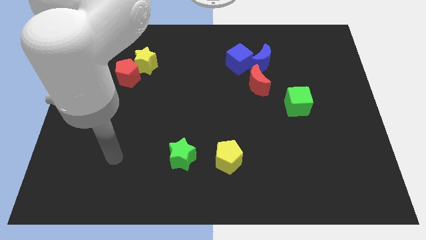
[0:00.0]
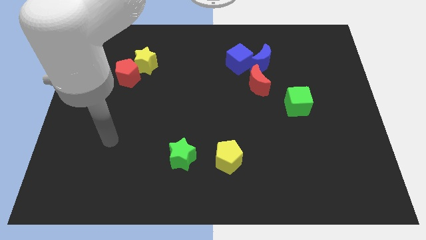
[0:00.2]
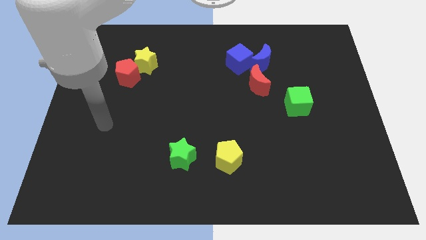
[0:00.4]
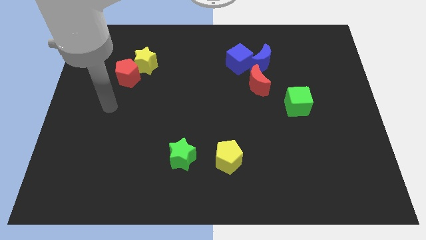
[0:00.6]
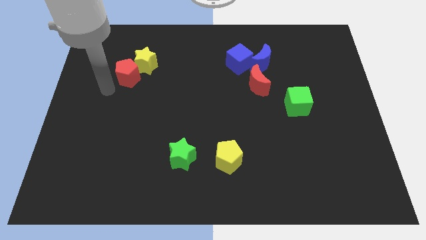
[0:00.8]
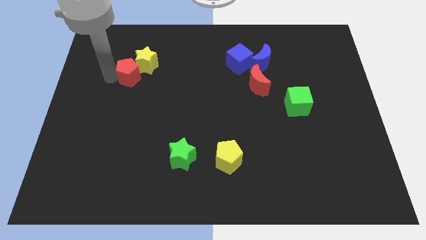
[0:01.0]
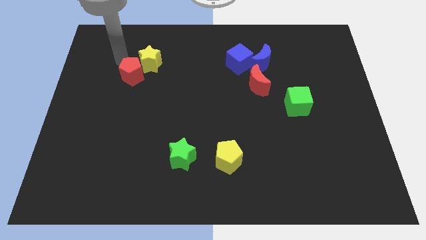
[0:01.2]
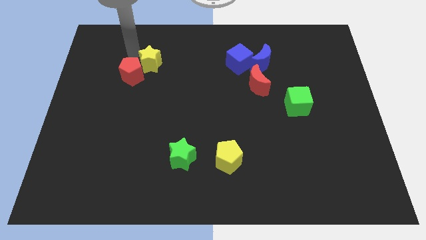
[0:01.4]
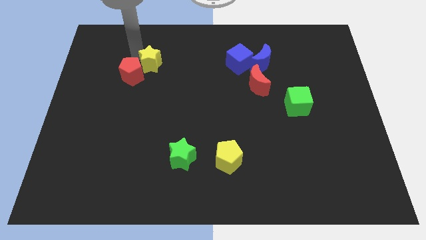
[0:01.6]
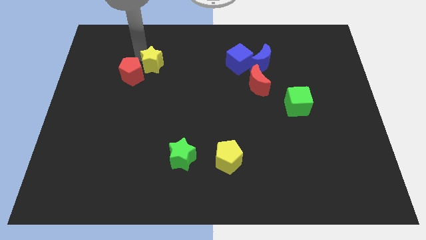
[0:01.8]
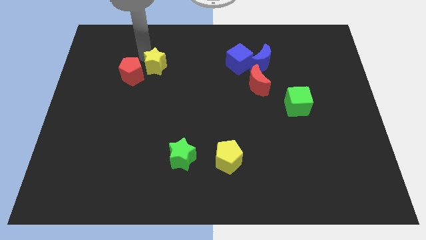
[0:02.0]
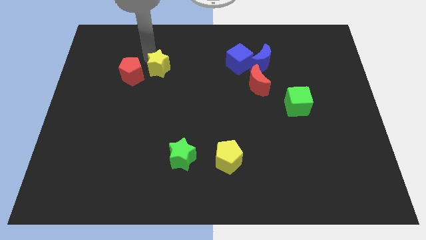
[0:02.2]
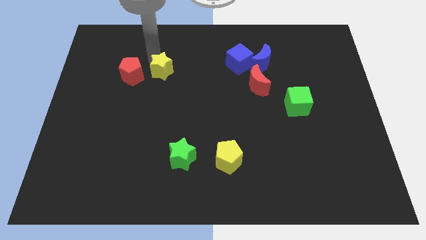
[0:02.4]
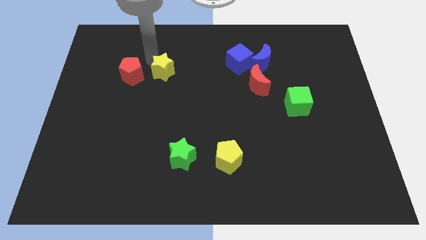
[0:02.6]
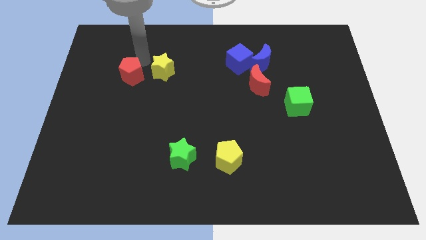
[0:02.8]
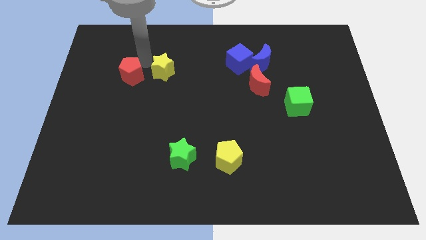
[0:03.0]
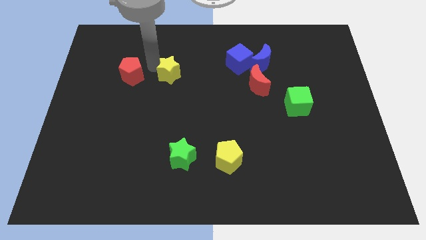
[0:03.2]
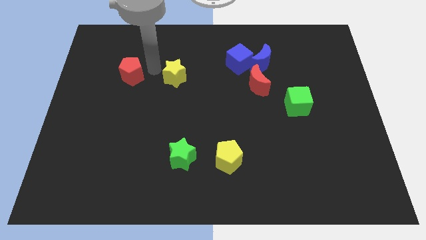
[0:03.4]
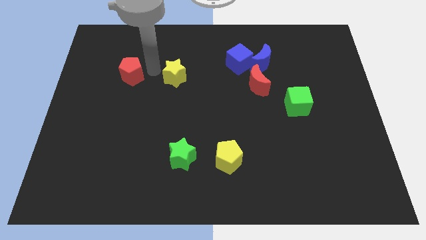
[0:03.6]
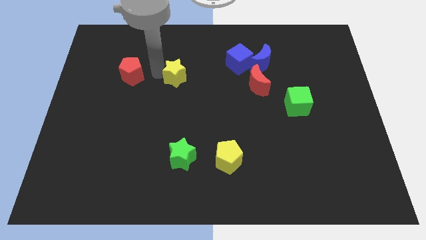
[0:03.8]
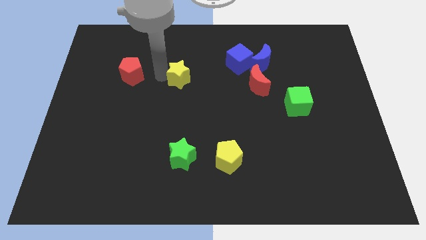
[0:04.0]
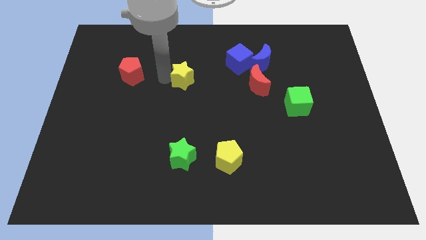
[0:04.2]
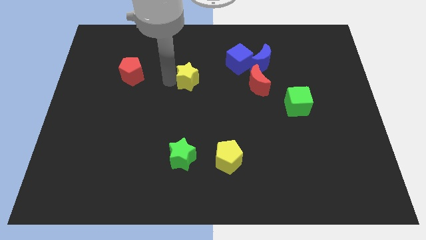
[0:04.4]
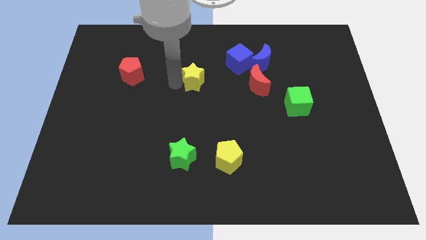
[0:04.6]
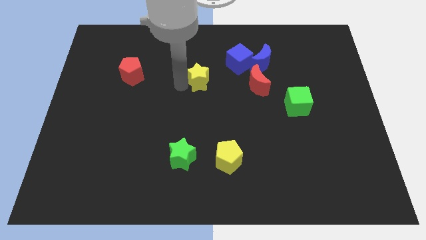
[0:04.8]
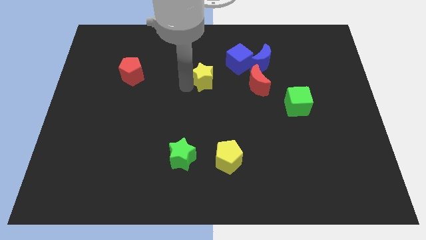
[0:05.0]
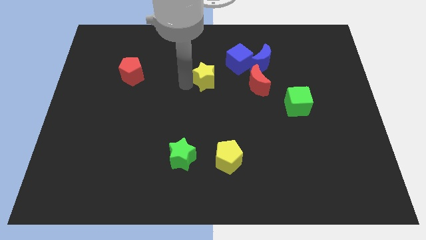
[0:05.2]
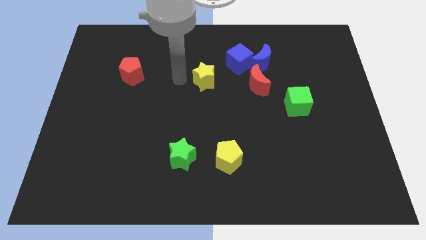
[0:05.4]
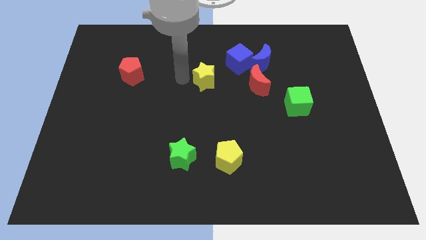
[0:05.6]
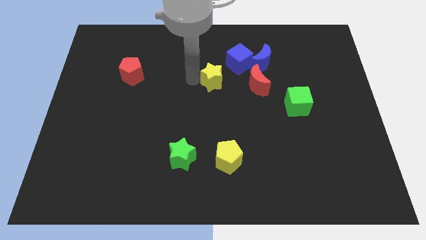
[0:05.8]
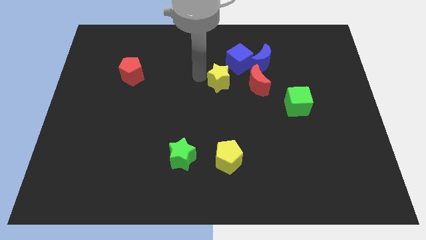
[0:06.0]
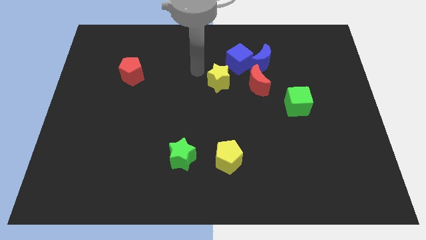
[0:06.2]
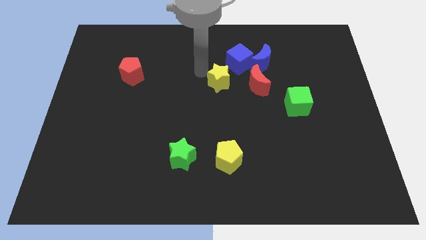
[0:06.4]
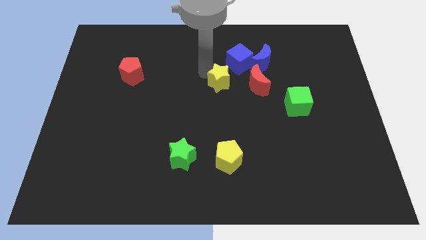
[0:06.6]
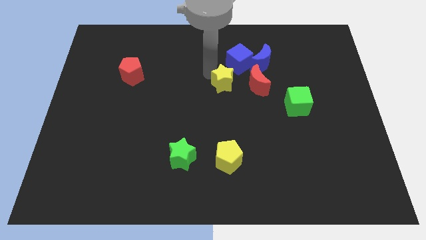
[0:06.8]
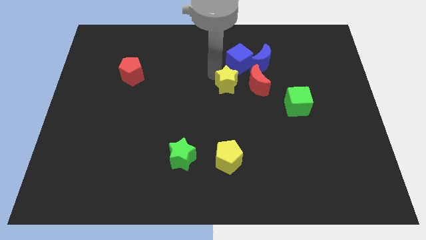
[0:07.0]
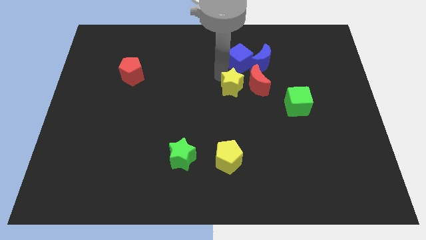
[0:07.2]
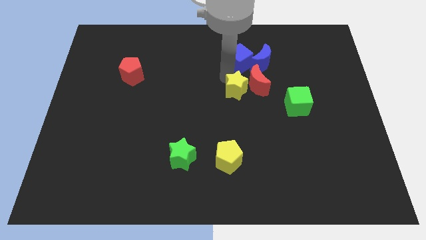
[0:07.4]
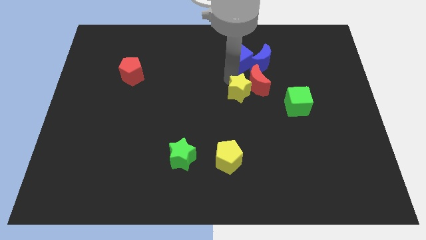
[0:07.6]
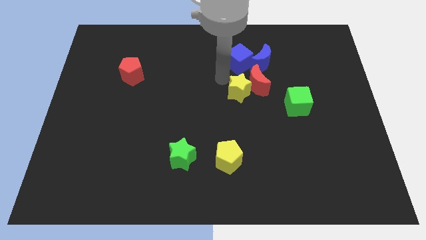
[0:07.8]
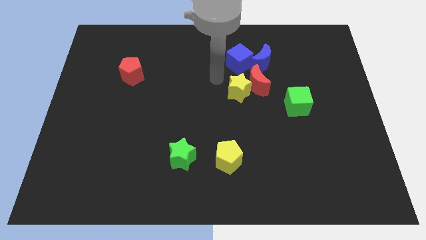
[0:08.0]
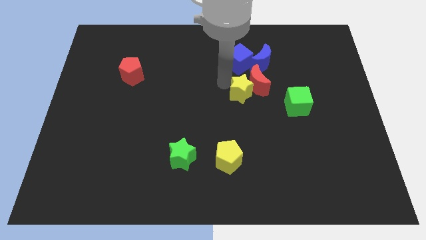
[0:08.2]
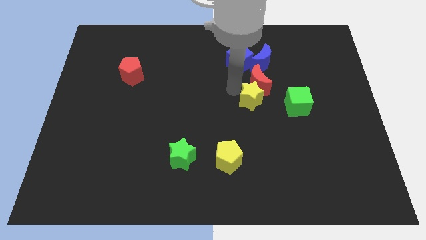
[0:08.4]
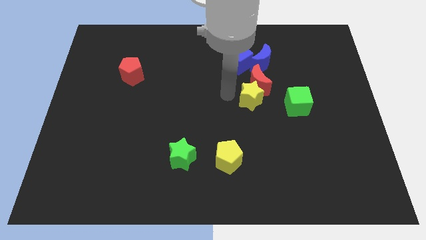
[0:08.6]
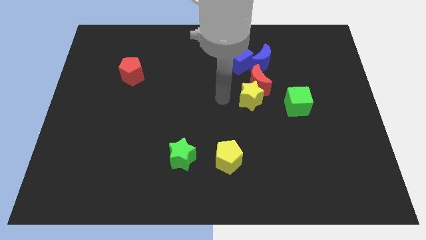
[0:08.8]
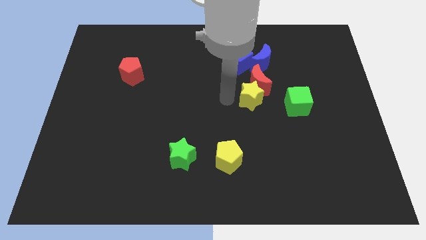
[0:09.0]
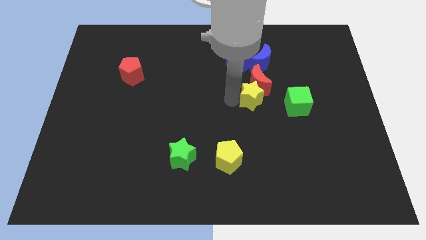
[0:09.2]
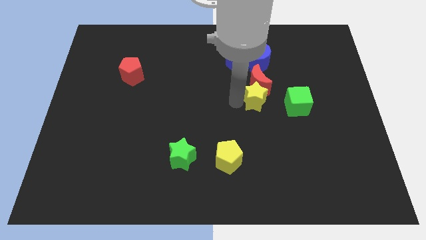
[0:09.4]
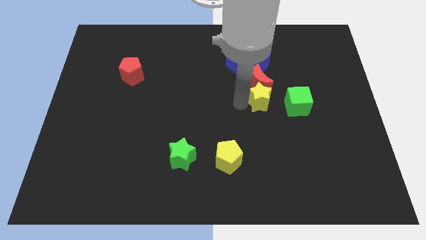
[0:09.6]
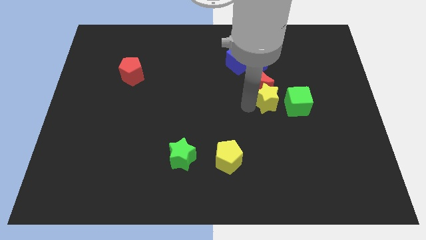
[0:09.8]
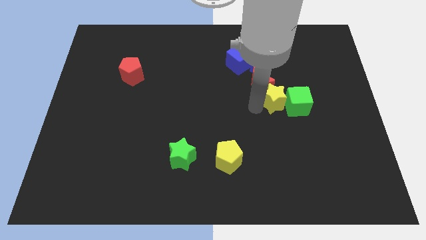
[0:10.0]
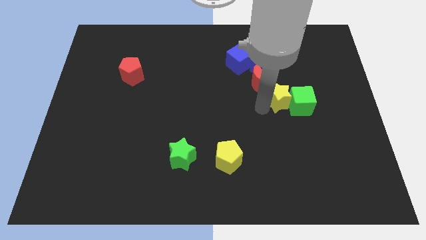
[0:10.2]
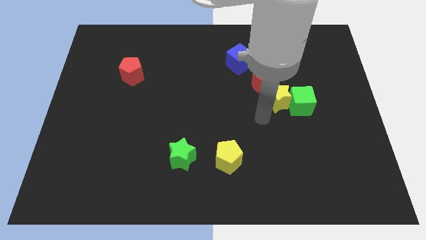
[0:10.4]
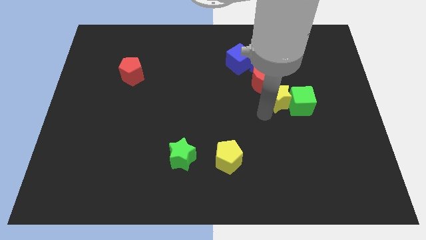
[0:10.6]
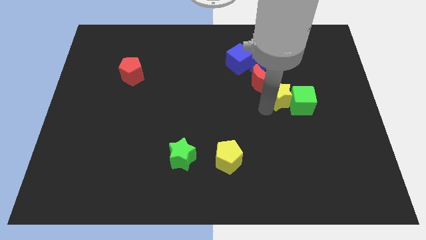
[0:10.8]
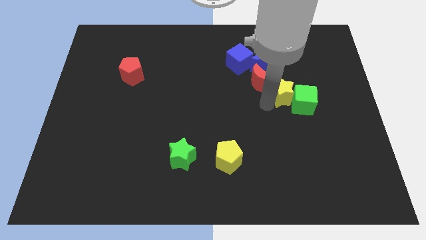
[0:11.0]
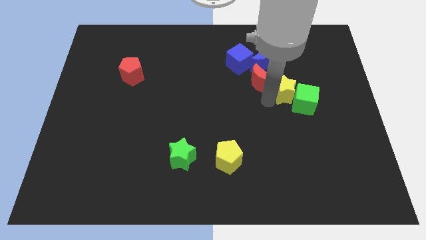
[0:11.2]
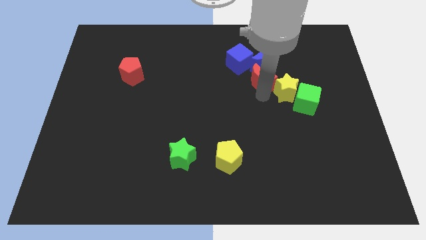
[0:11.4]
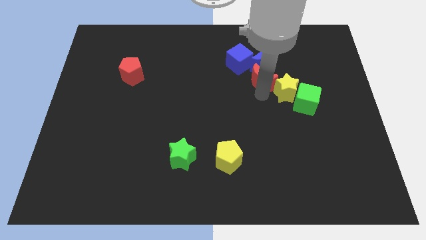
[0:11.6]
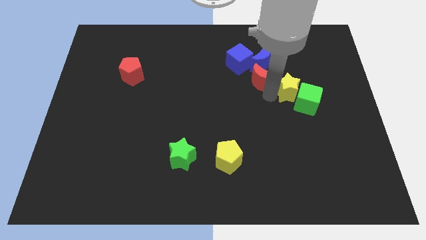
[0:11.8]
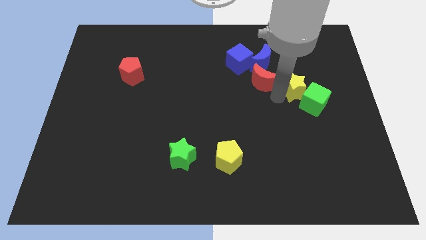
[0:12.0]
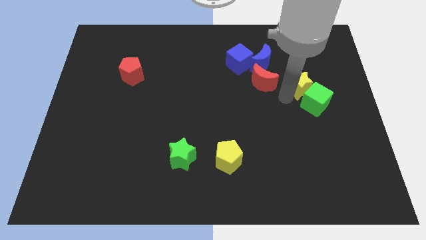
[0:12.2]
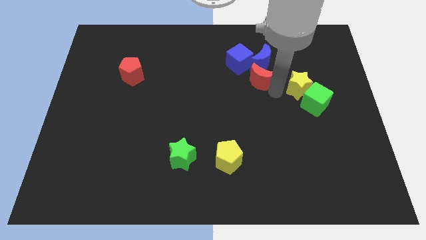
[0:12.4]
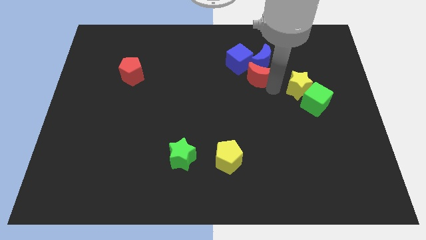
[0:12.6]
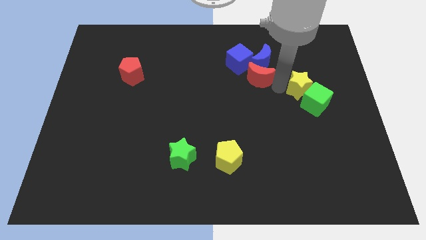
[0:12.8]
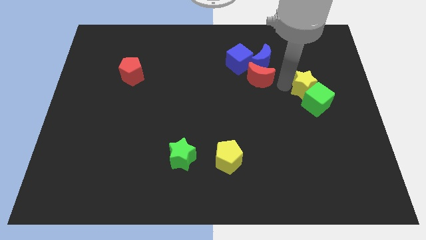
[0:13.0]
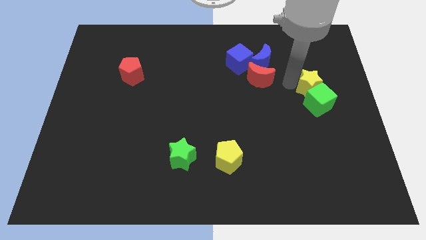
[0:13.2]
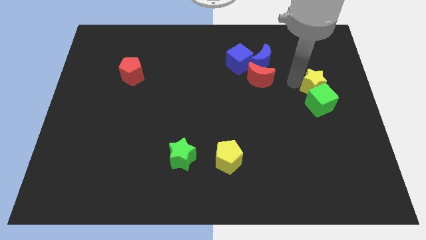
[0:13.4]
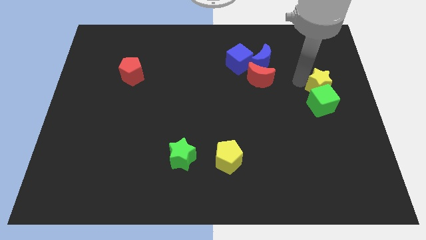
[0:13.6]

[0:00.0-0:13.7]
slide the yellow star to the center right
